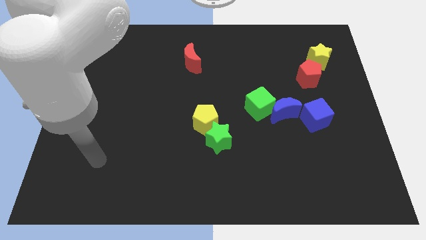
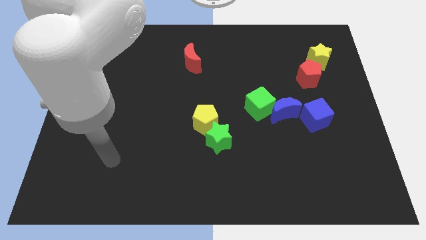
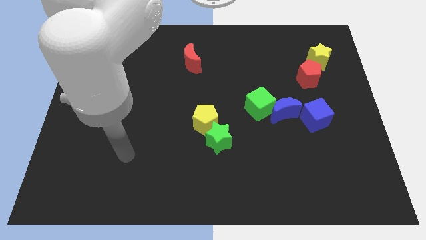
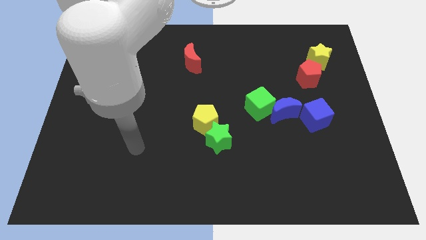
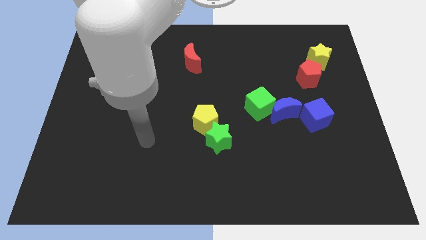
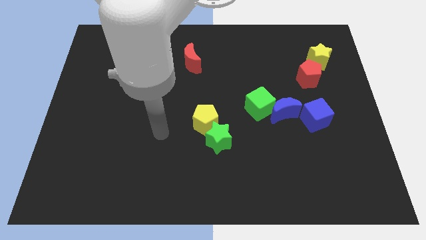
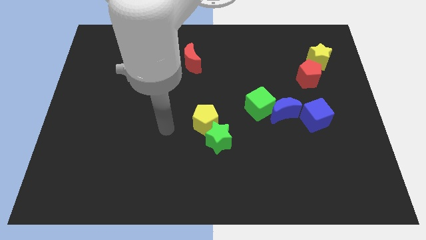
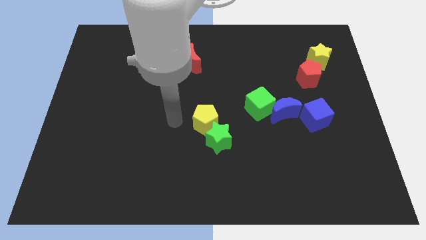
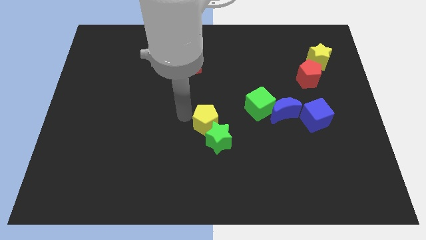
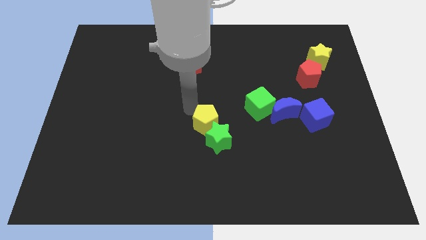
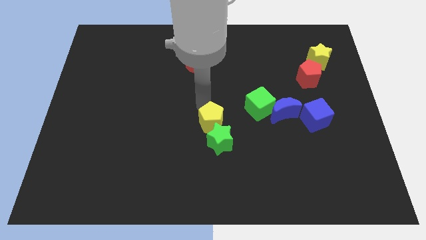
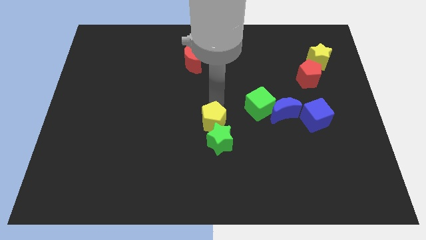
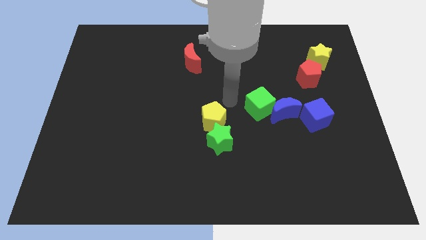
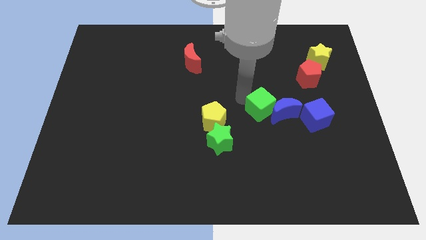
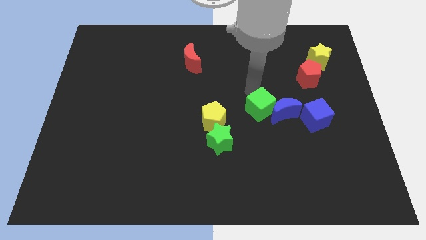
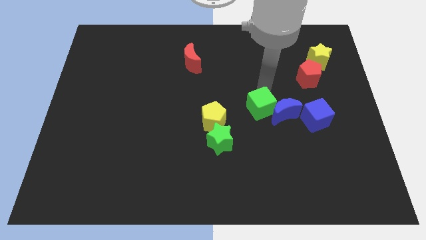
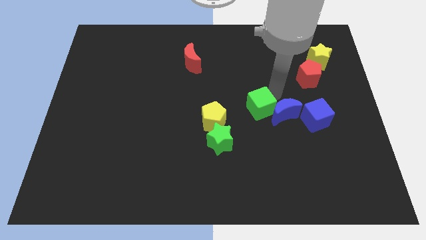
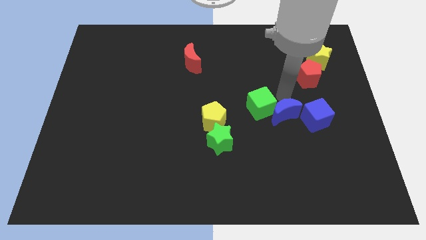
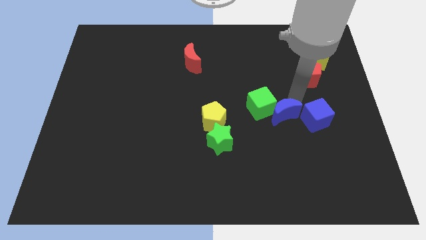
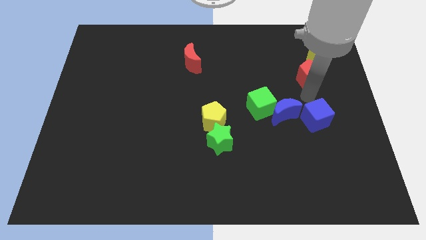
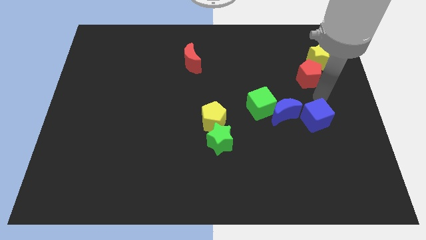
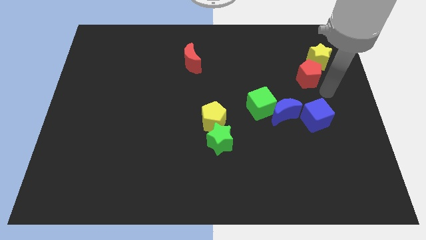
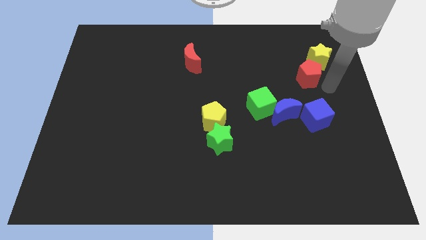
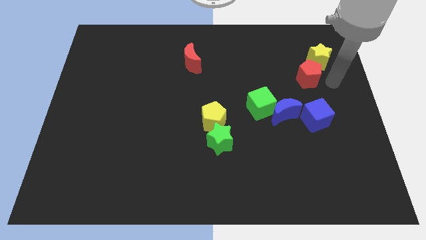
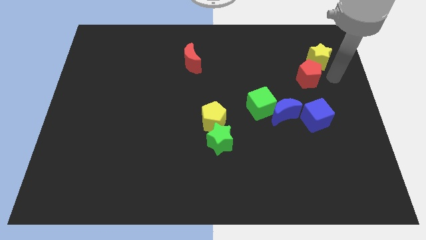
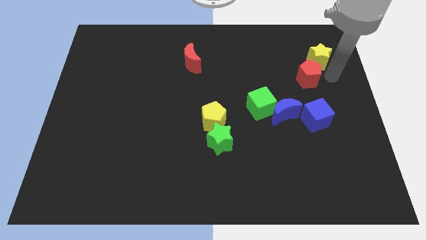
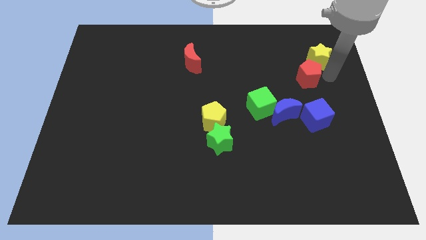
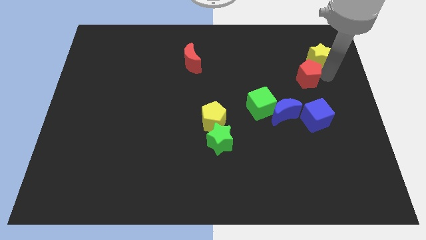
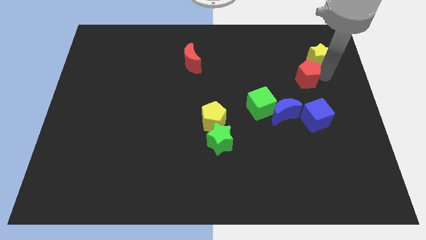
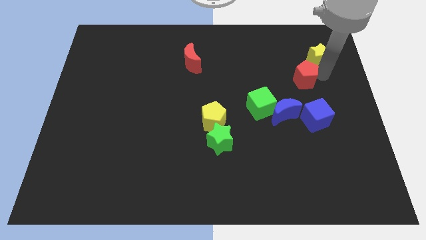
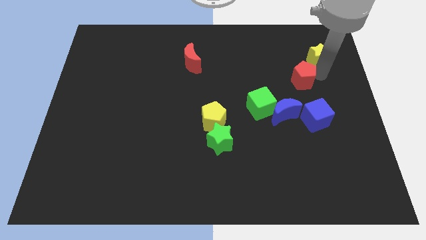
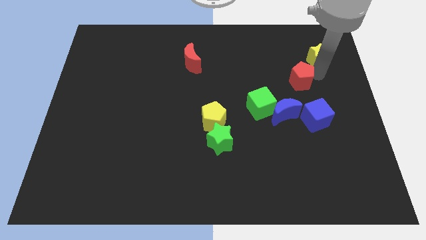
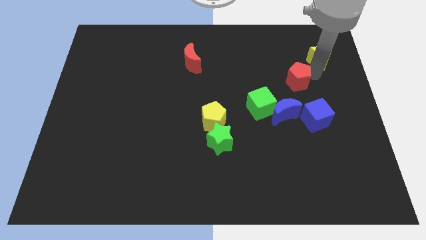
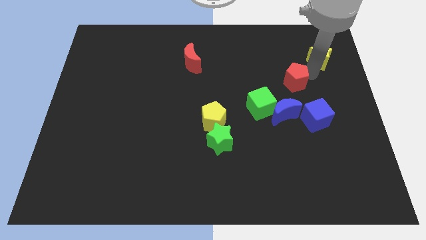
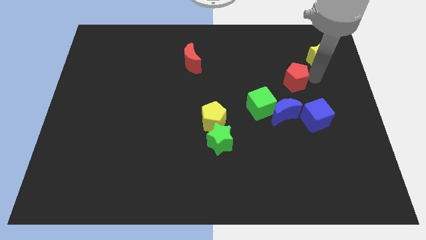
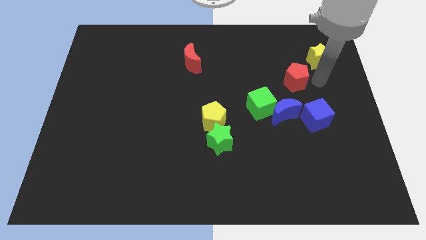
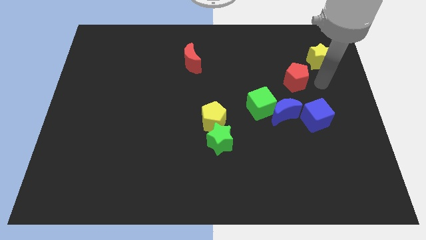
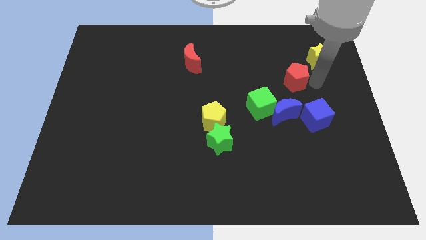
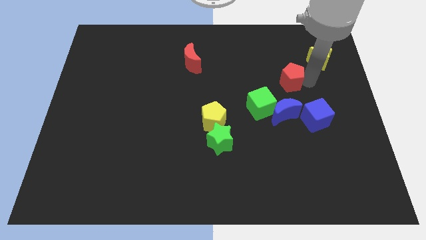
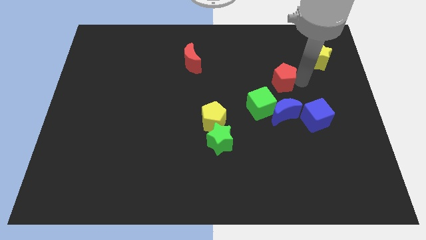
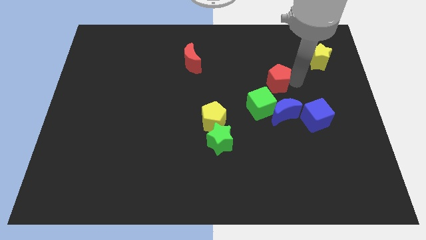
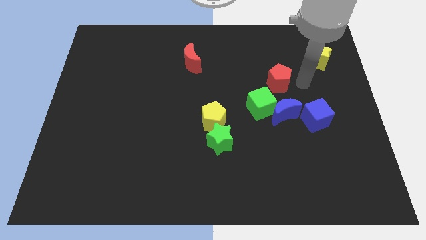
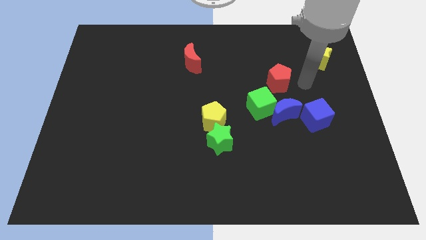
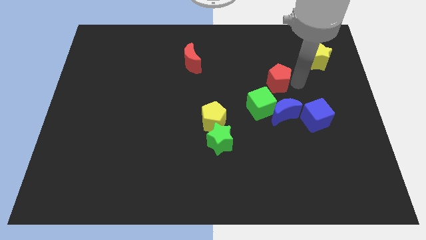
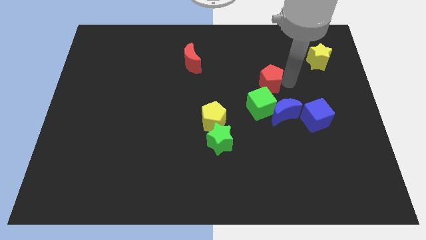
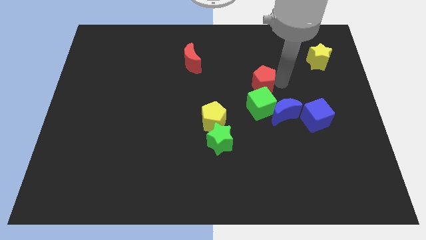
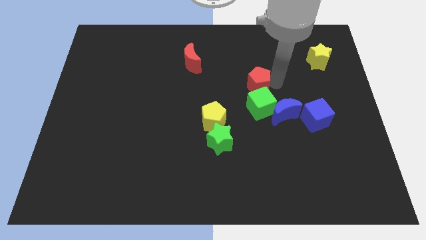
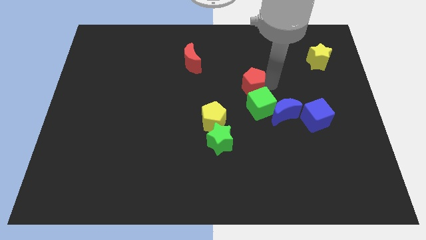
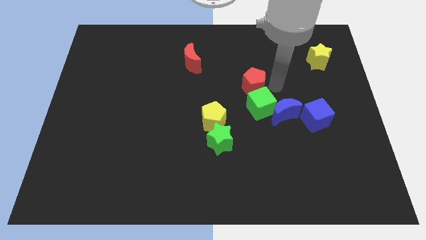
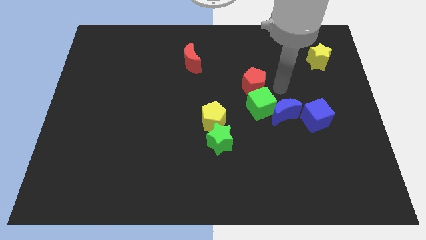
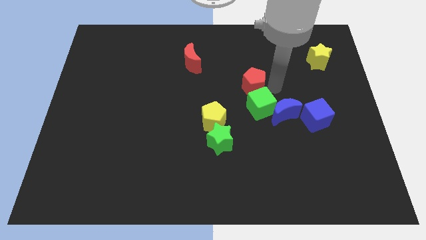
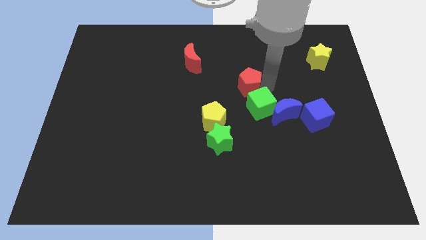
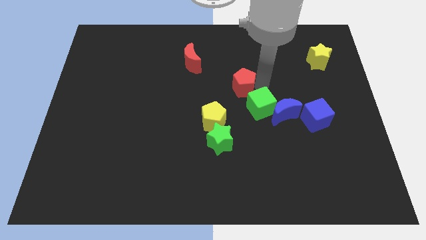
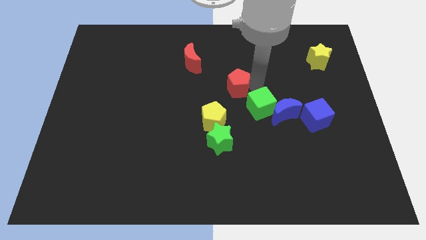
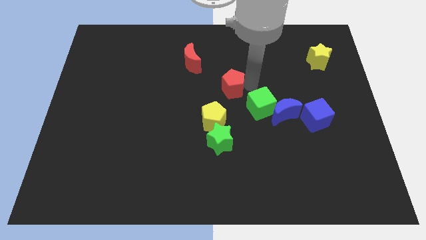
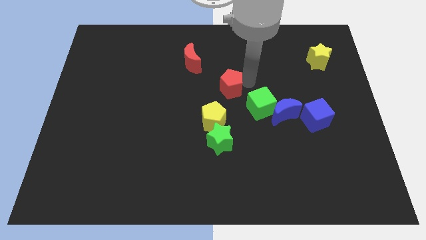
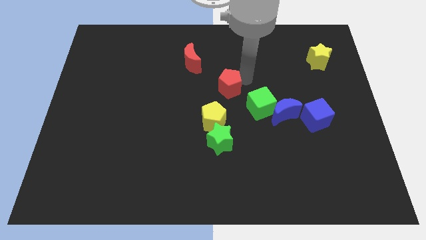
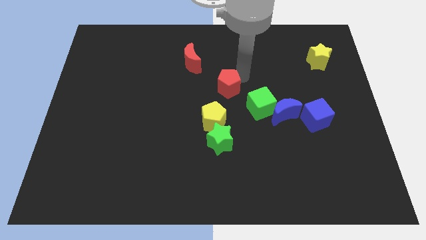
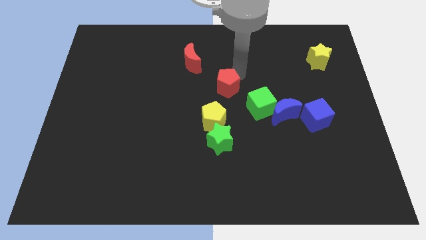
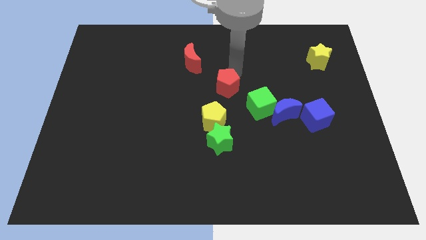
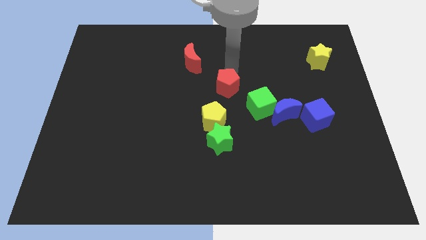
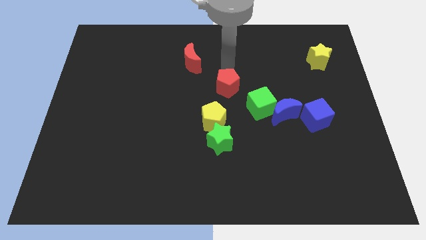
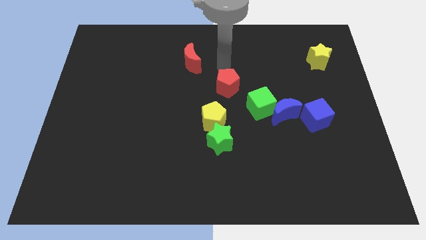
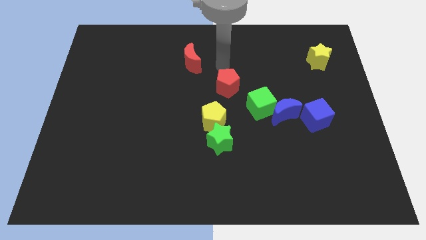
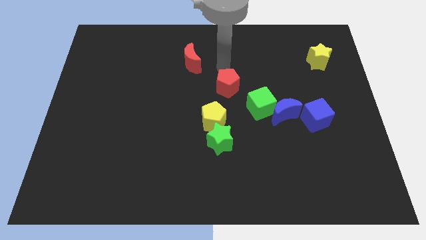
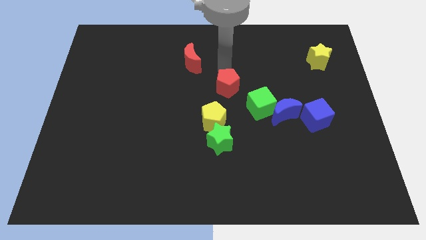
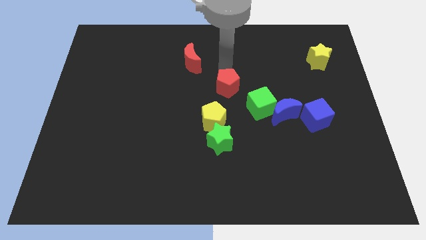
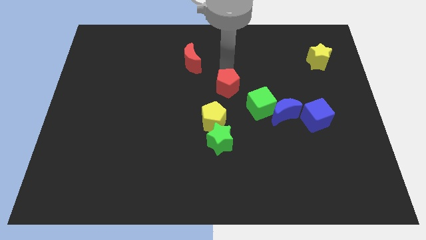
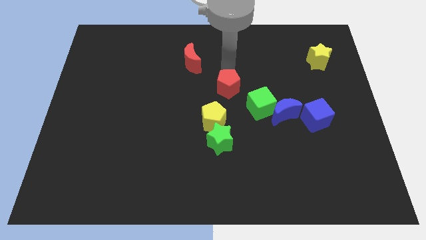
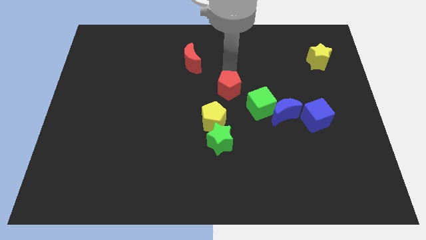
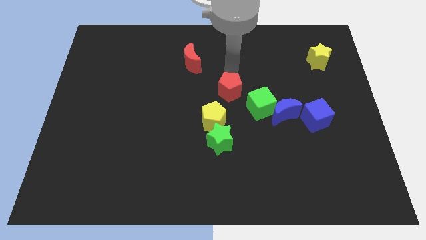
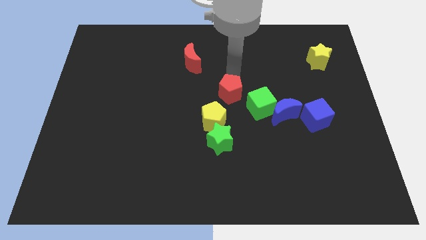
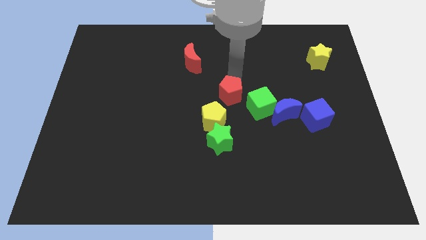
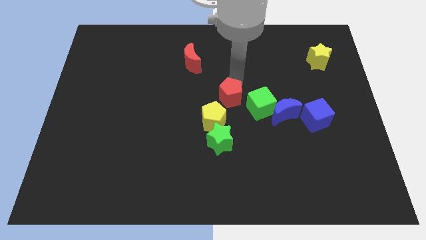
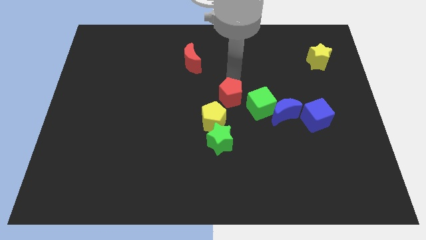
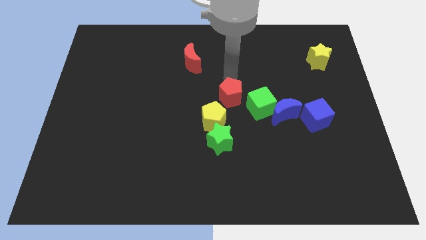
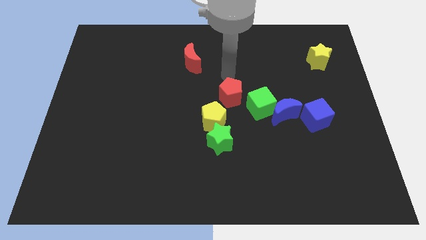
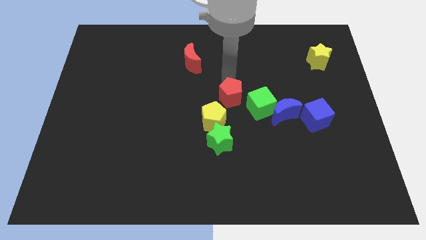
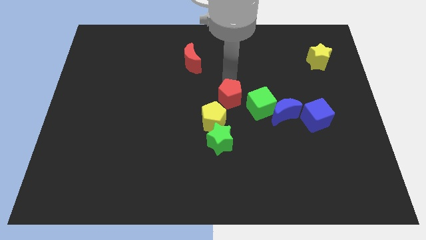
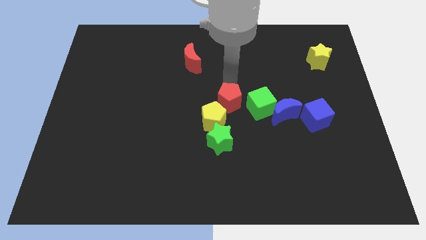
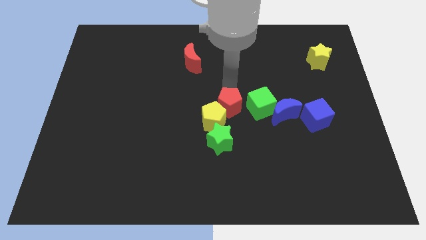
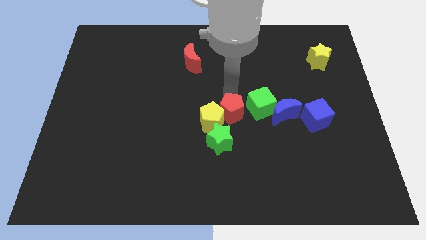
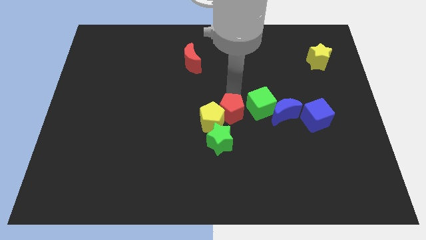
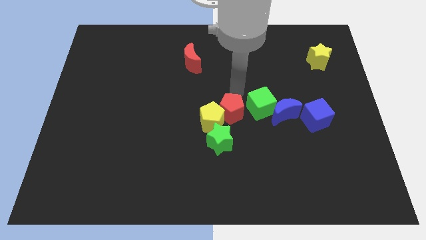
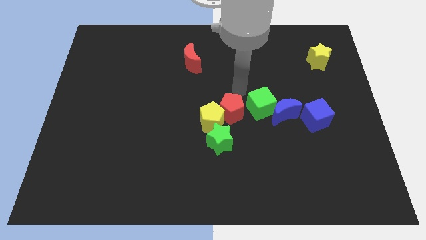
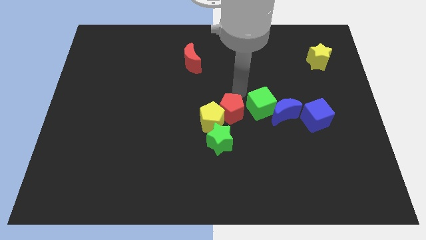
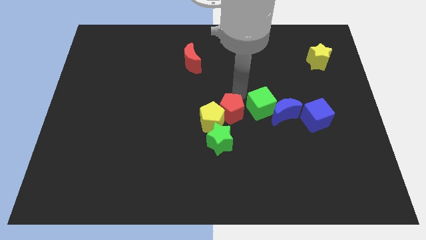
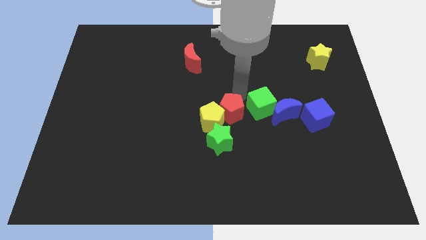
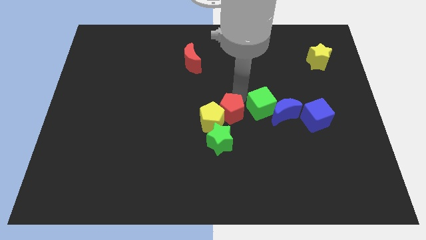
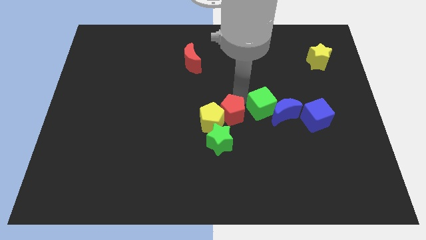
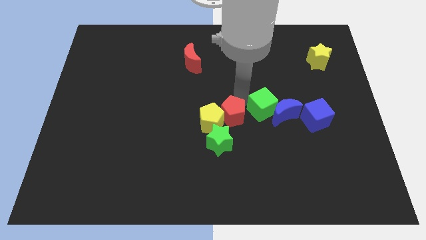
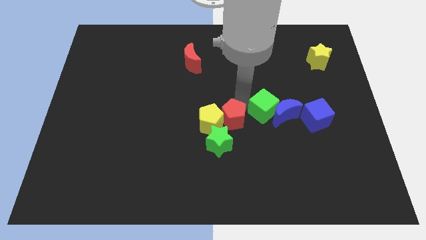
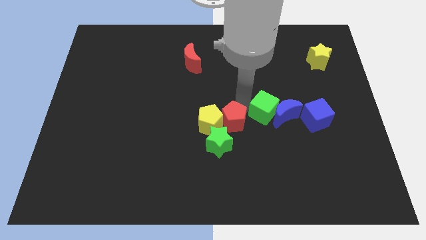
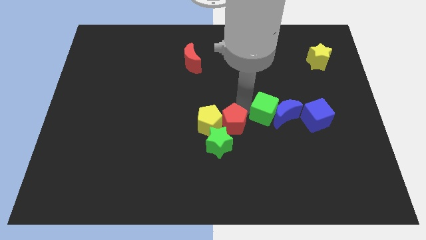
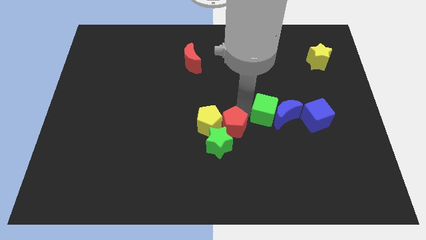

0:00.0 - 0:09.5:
put the red pentagon to the green star
